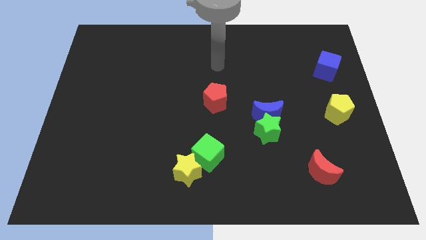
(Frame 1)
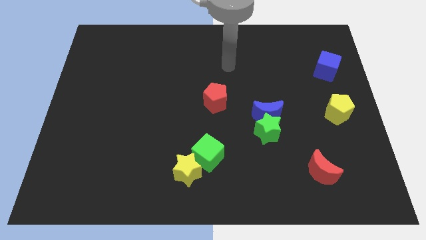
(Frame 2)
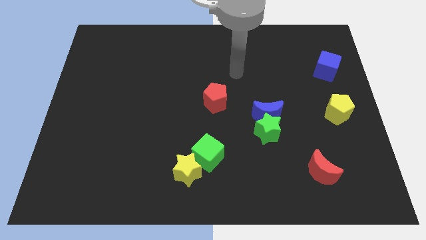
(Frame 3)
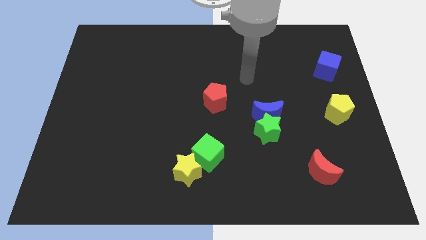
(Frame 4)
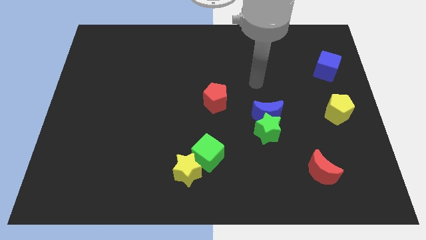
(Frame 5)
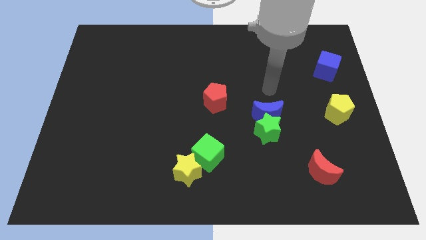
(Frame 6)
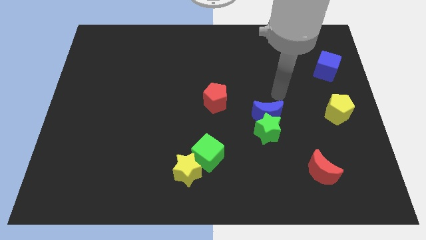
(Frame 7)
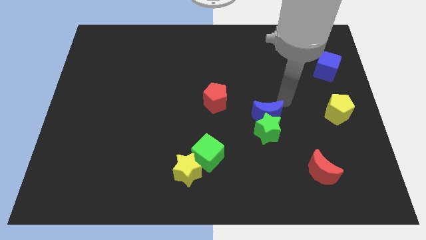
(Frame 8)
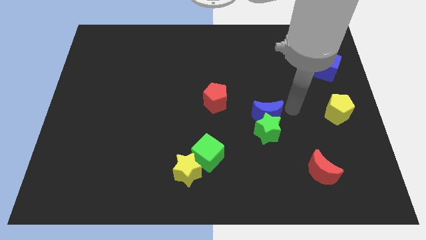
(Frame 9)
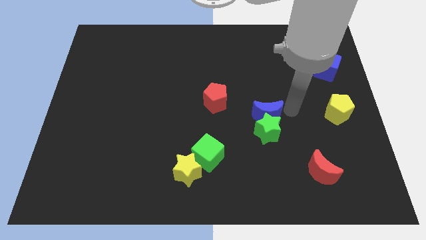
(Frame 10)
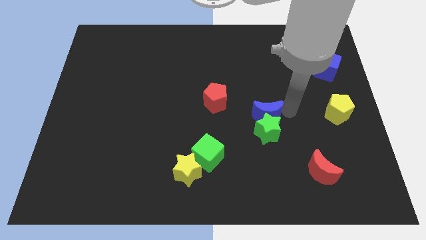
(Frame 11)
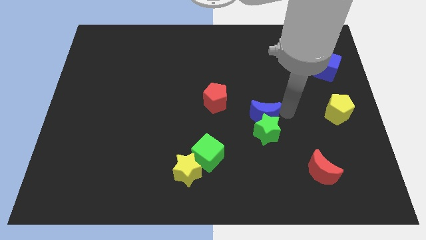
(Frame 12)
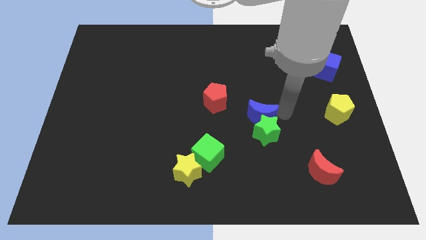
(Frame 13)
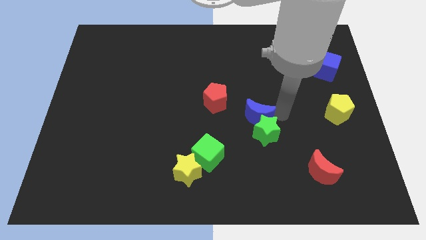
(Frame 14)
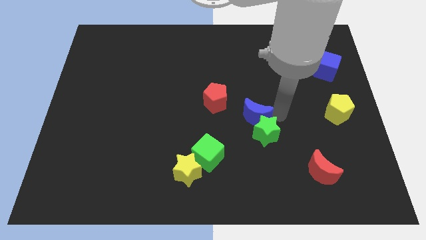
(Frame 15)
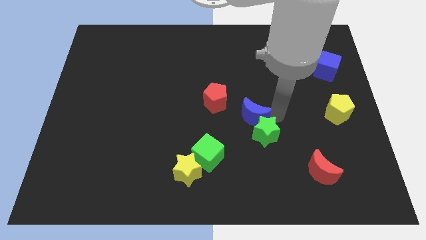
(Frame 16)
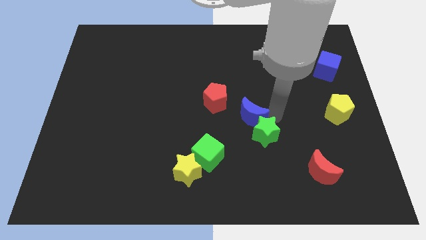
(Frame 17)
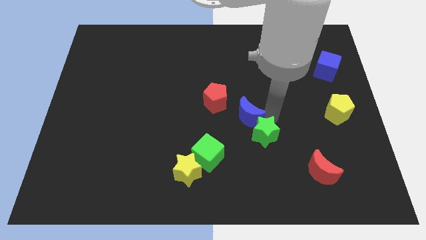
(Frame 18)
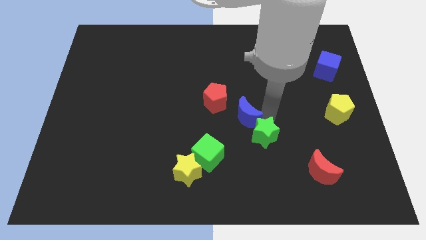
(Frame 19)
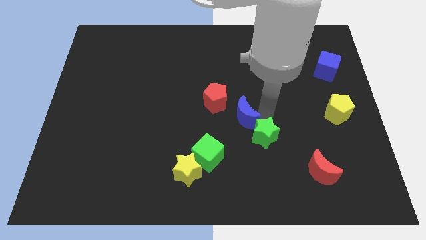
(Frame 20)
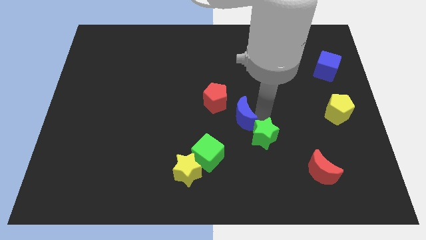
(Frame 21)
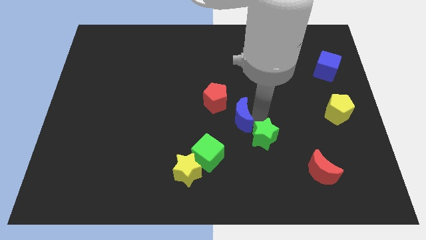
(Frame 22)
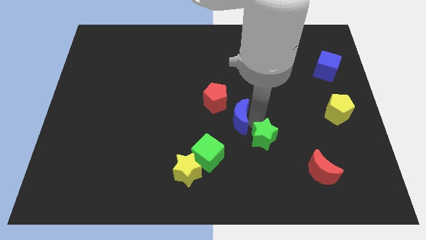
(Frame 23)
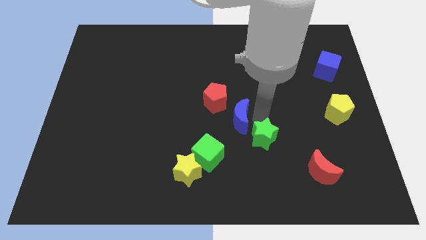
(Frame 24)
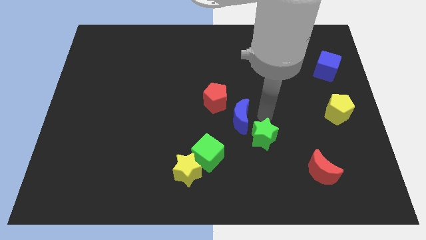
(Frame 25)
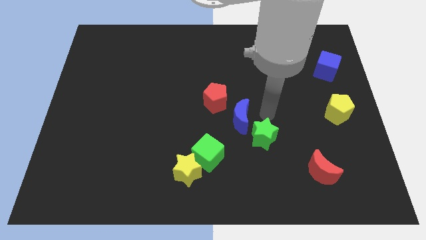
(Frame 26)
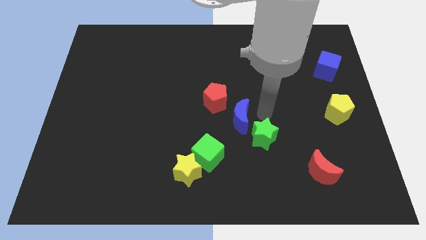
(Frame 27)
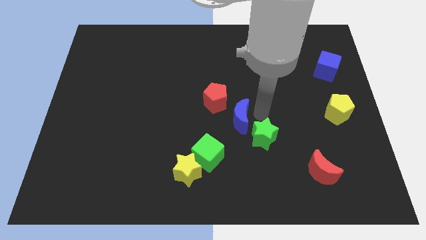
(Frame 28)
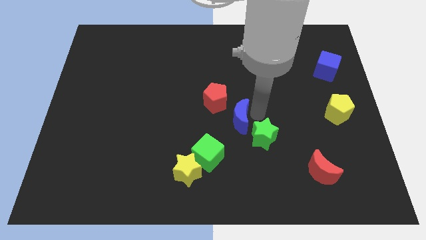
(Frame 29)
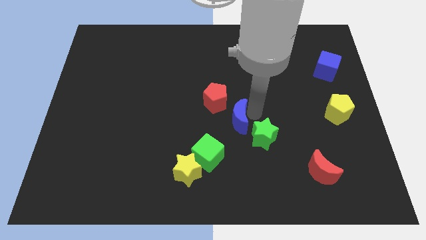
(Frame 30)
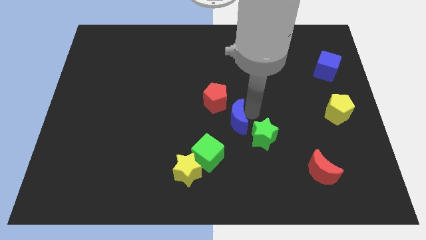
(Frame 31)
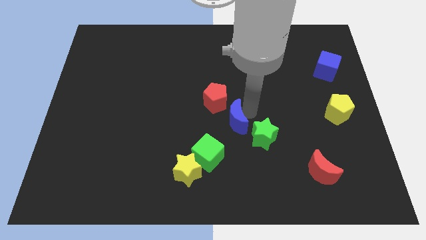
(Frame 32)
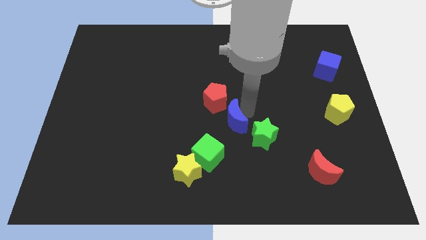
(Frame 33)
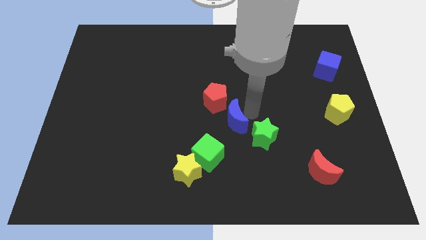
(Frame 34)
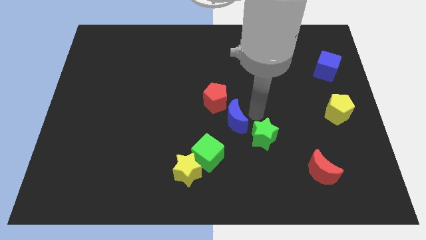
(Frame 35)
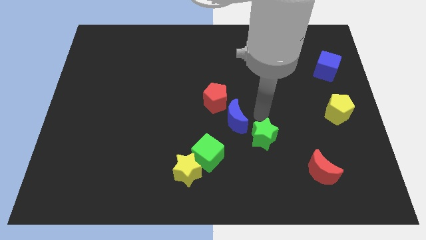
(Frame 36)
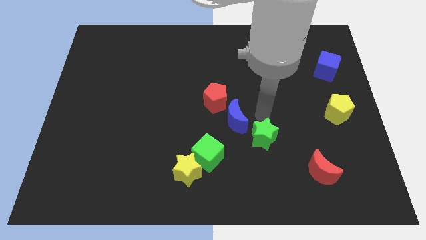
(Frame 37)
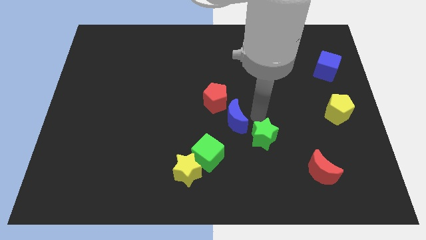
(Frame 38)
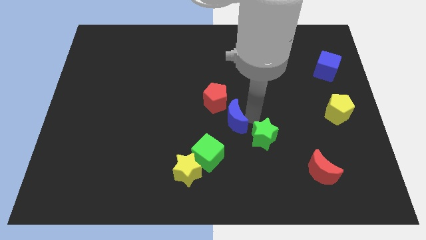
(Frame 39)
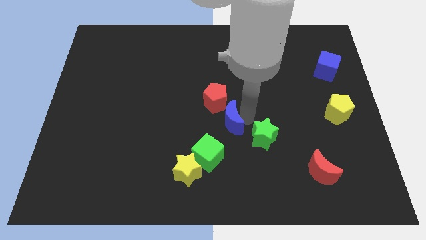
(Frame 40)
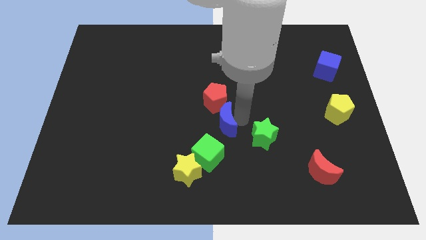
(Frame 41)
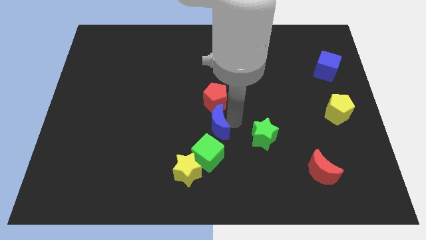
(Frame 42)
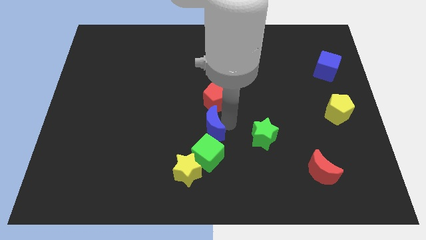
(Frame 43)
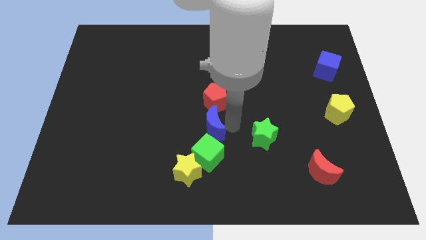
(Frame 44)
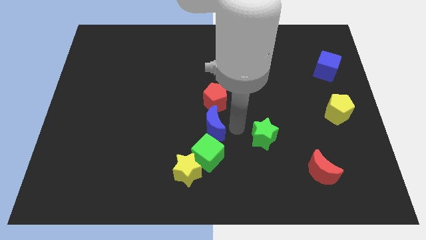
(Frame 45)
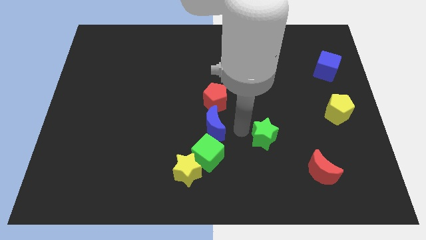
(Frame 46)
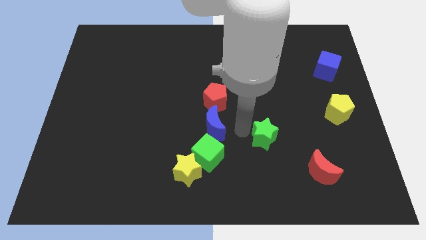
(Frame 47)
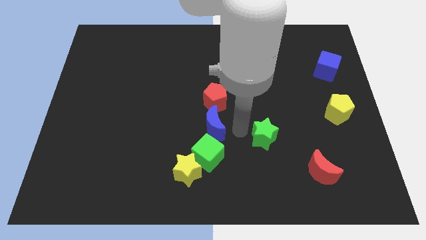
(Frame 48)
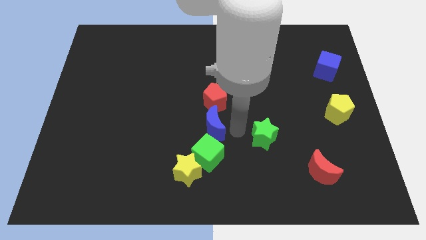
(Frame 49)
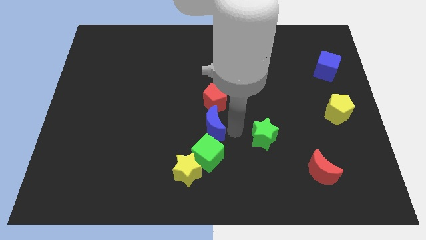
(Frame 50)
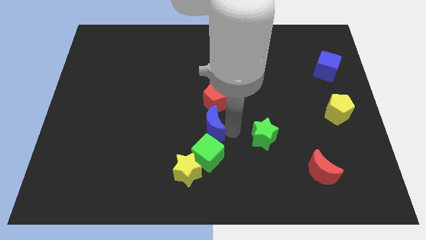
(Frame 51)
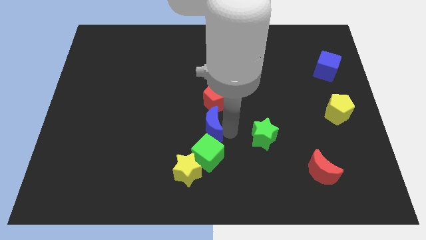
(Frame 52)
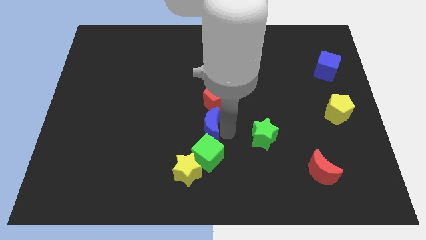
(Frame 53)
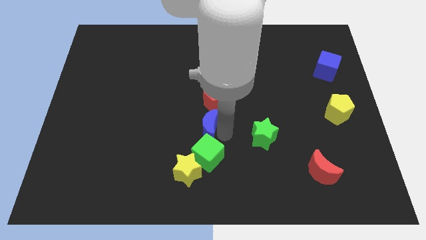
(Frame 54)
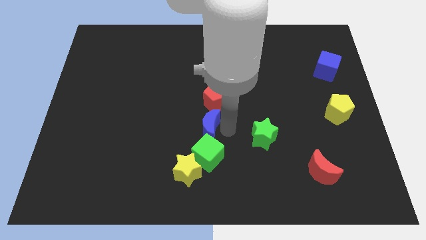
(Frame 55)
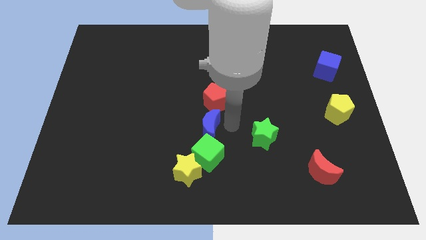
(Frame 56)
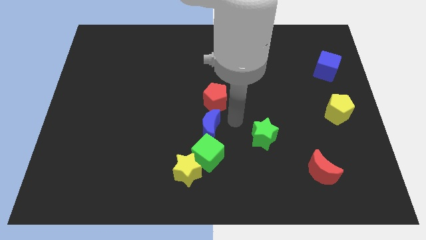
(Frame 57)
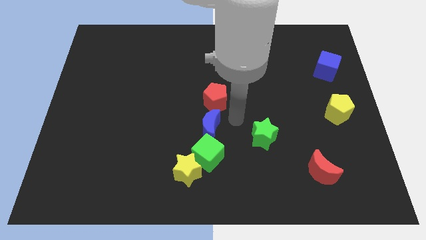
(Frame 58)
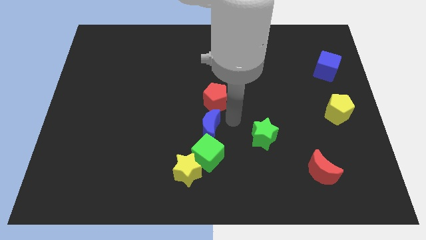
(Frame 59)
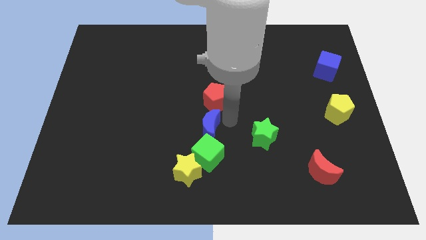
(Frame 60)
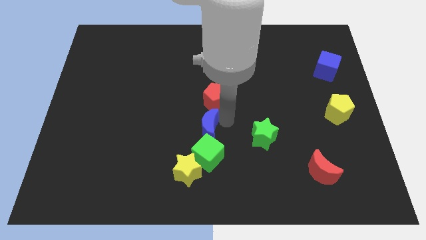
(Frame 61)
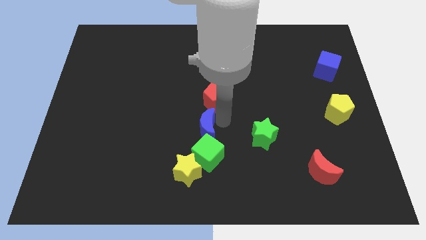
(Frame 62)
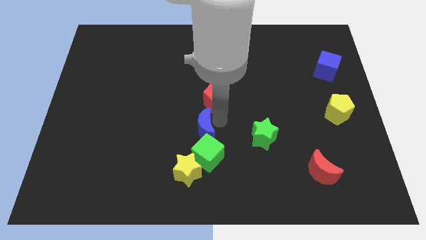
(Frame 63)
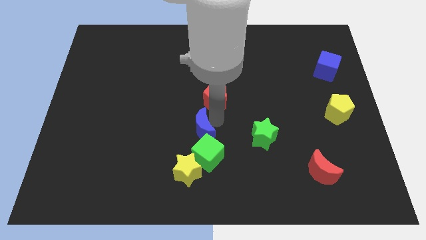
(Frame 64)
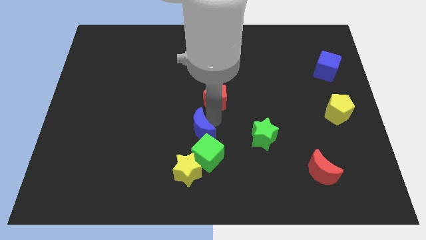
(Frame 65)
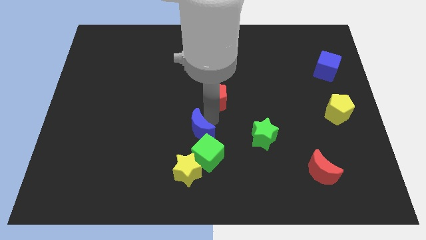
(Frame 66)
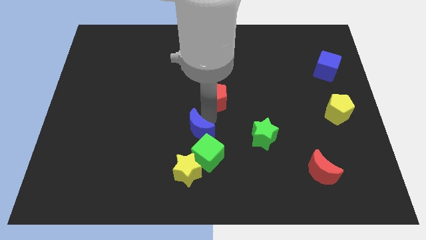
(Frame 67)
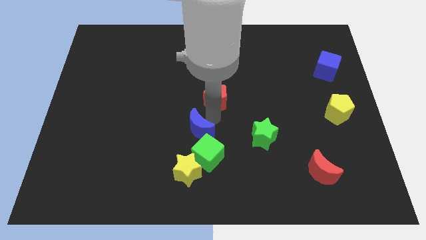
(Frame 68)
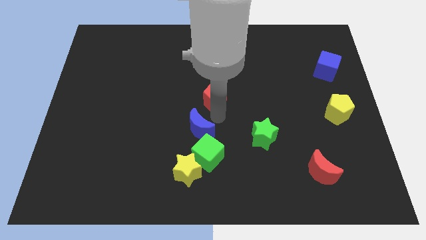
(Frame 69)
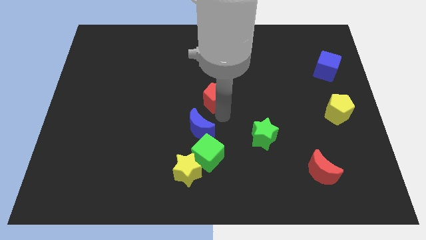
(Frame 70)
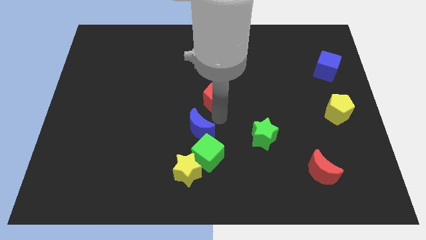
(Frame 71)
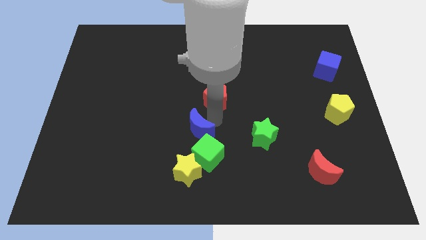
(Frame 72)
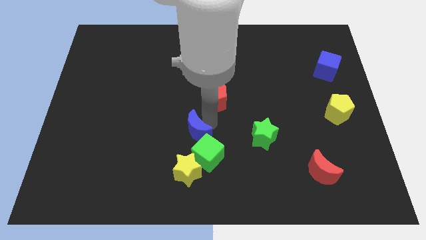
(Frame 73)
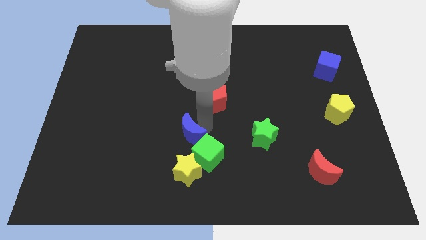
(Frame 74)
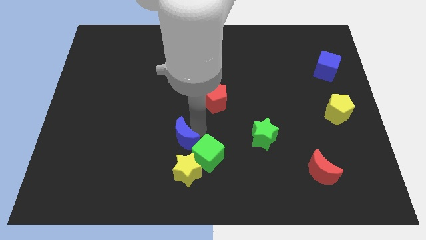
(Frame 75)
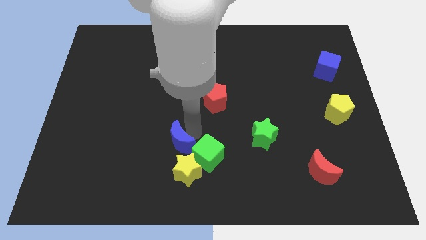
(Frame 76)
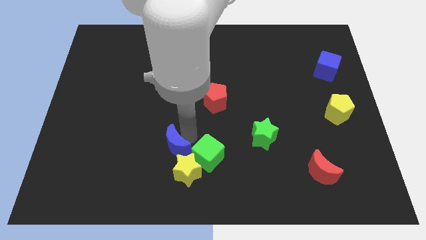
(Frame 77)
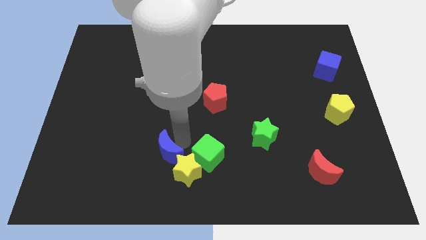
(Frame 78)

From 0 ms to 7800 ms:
move the blue moon to the left side of the yellow star
